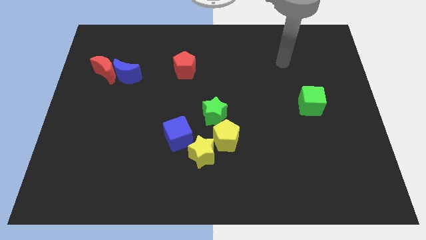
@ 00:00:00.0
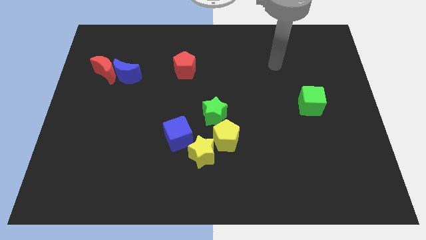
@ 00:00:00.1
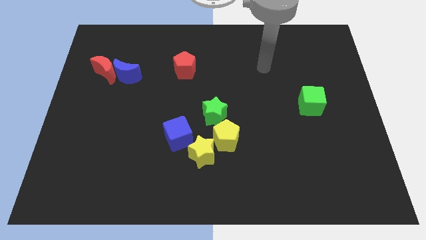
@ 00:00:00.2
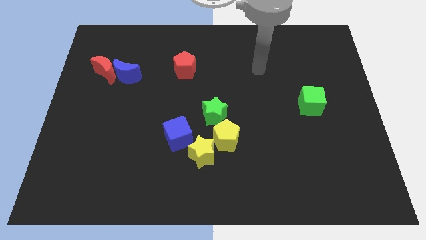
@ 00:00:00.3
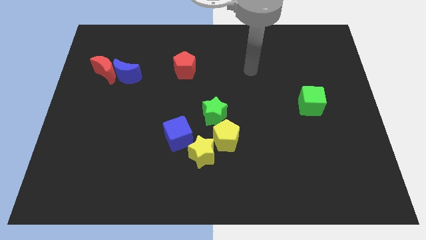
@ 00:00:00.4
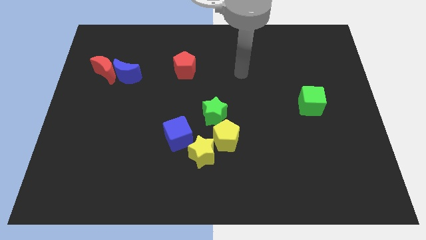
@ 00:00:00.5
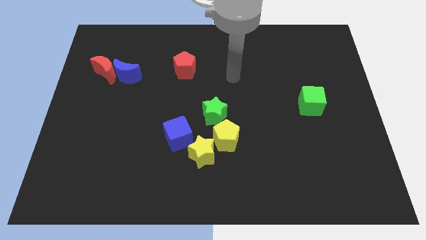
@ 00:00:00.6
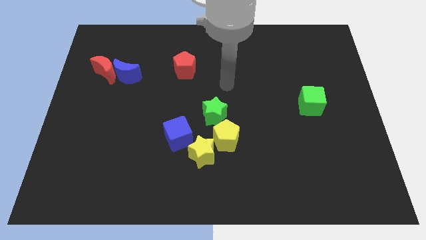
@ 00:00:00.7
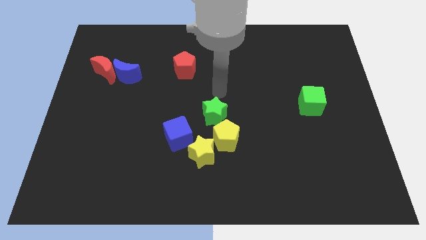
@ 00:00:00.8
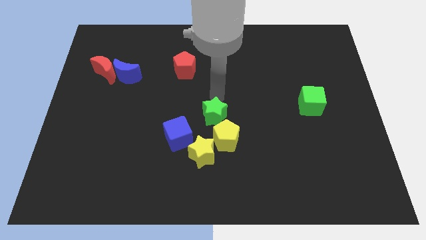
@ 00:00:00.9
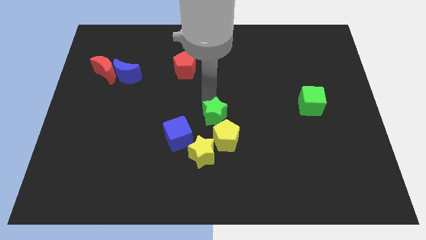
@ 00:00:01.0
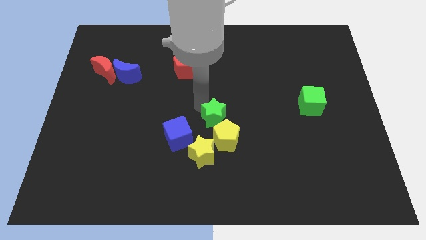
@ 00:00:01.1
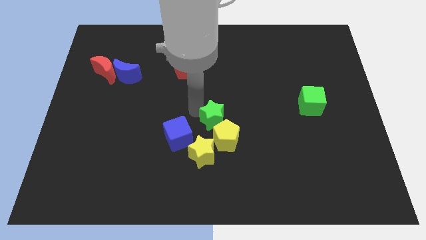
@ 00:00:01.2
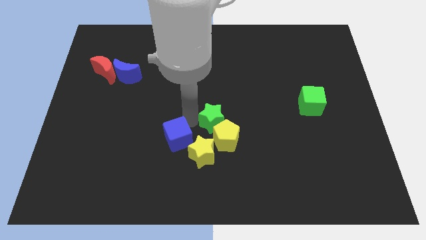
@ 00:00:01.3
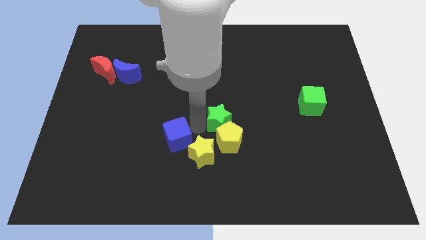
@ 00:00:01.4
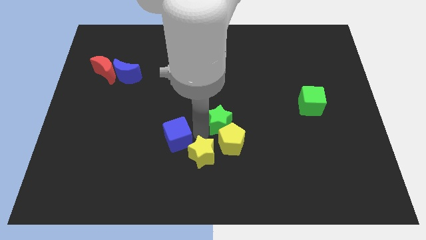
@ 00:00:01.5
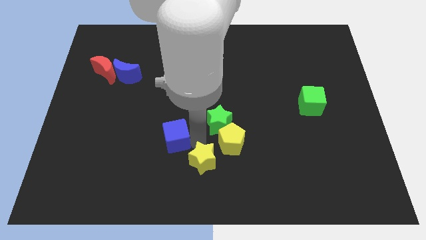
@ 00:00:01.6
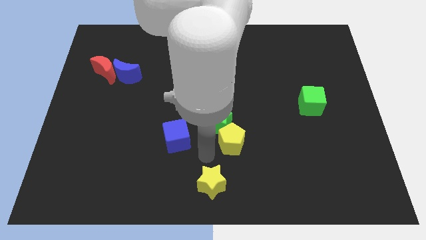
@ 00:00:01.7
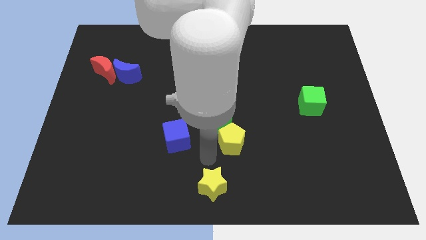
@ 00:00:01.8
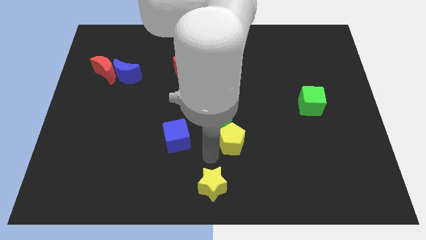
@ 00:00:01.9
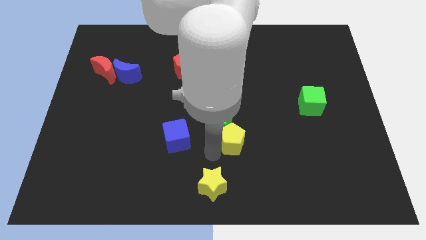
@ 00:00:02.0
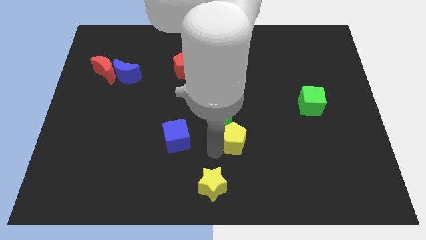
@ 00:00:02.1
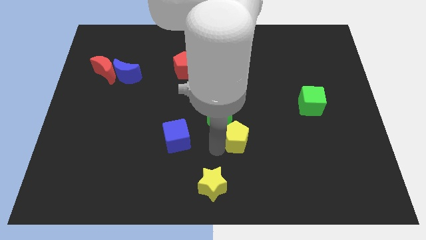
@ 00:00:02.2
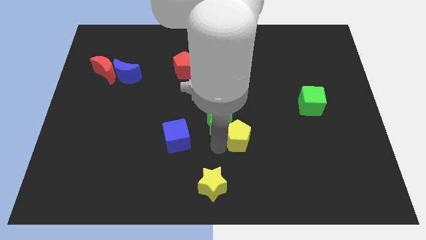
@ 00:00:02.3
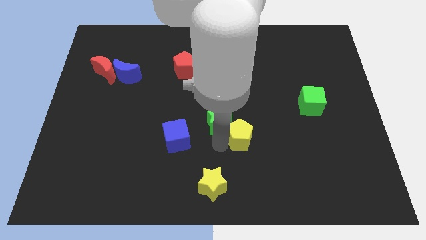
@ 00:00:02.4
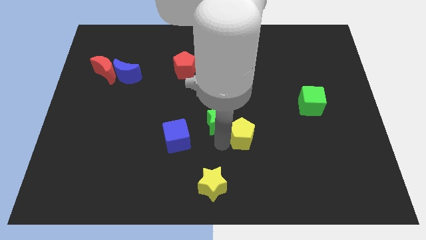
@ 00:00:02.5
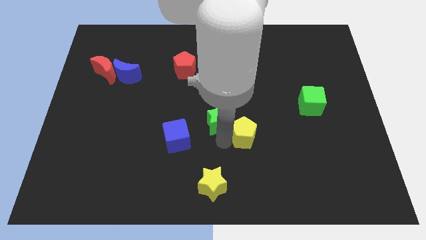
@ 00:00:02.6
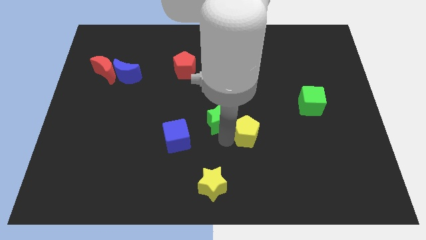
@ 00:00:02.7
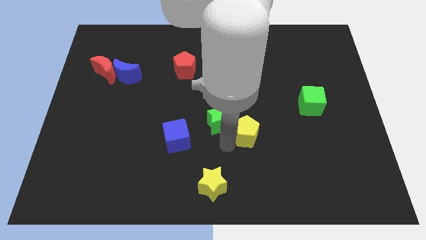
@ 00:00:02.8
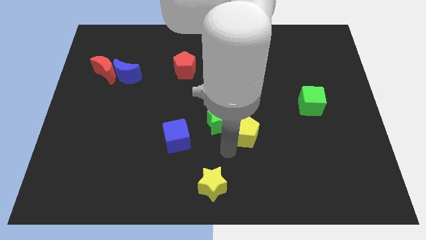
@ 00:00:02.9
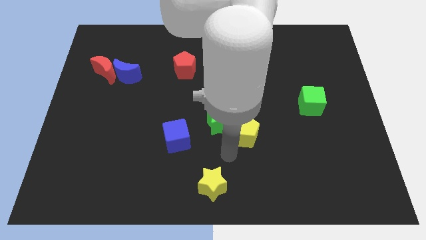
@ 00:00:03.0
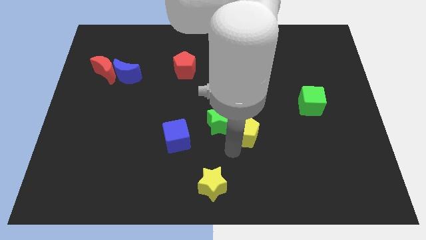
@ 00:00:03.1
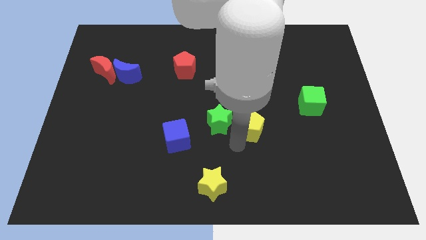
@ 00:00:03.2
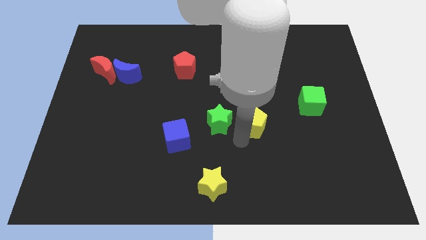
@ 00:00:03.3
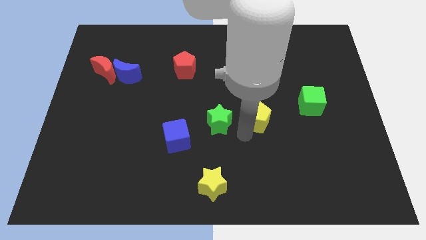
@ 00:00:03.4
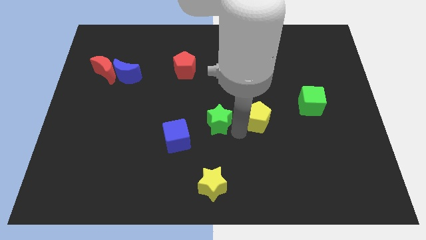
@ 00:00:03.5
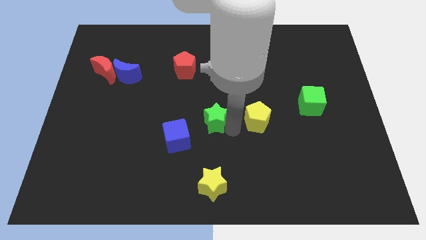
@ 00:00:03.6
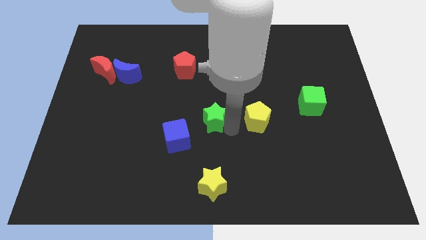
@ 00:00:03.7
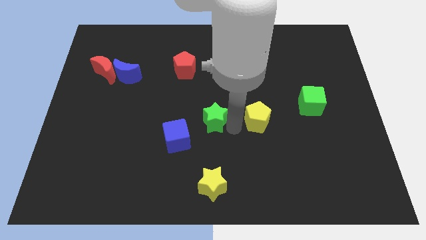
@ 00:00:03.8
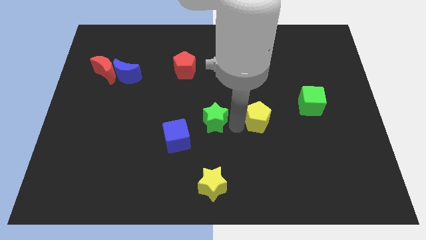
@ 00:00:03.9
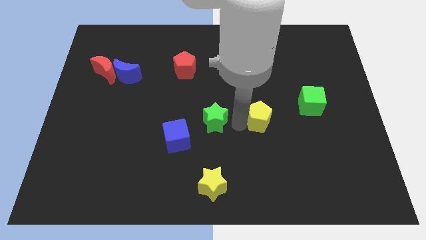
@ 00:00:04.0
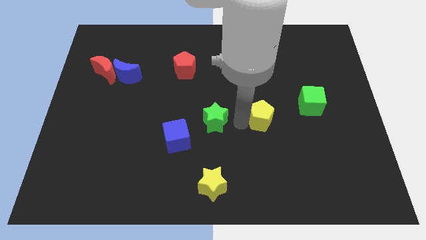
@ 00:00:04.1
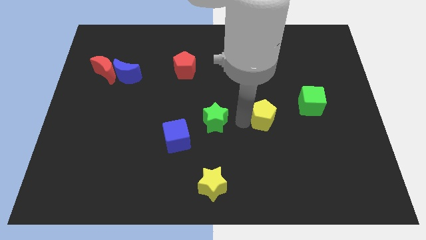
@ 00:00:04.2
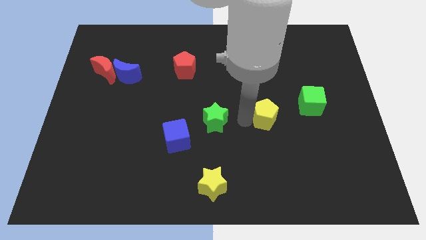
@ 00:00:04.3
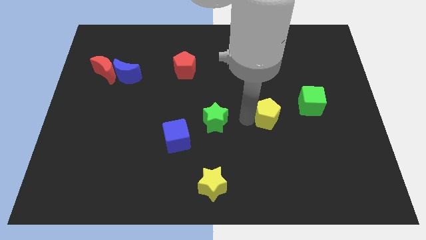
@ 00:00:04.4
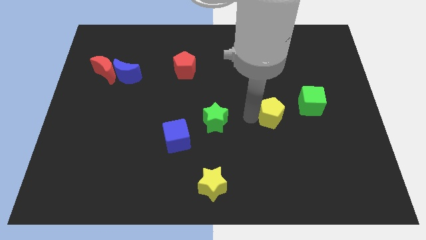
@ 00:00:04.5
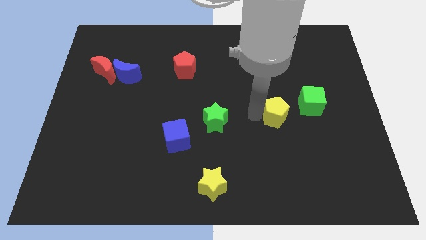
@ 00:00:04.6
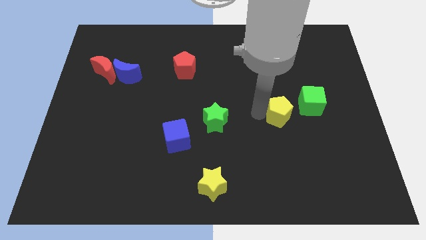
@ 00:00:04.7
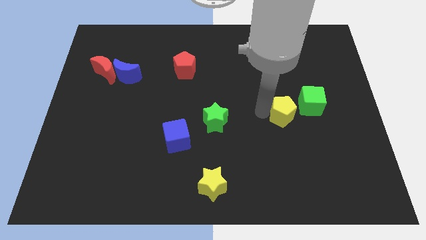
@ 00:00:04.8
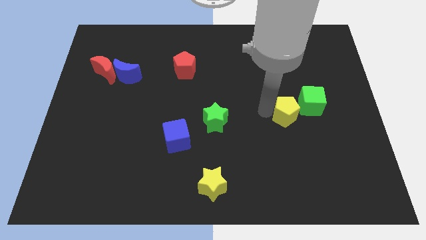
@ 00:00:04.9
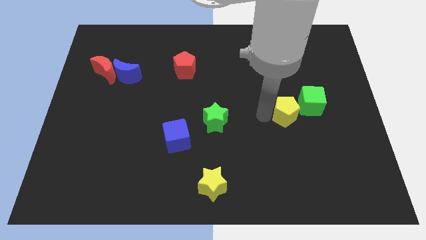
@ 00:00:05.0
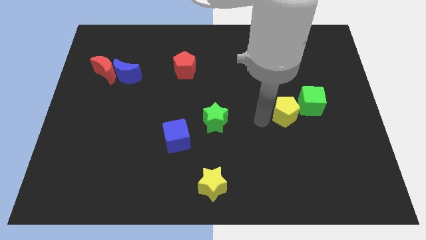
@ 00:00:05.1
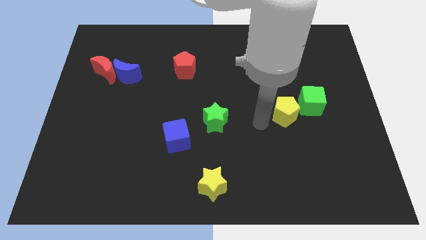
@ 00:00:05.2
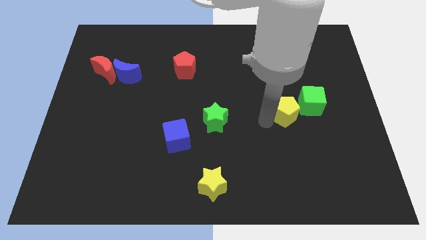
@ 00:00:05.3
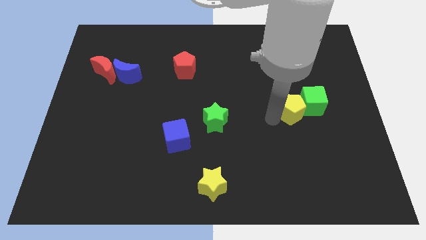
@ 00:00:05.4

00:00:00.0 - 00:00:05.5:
slide the yellow pentagon close to the green cube

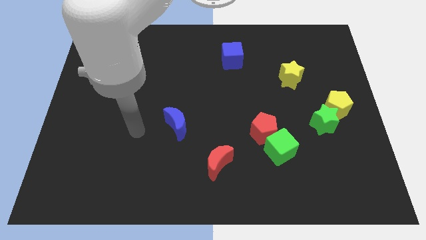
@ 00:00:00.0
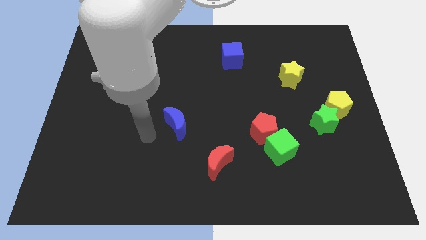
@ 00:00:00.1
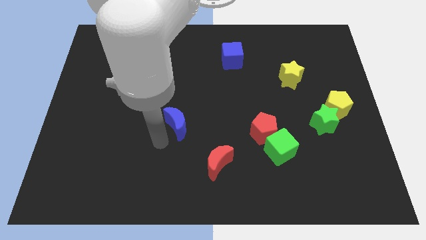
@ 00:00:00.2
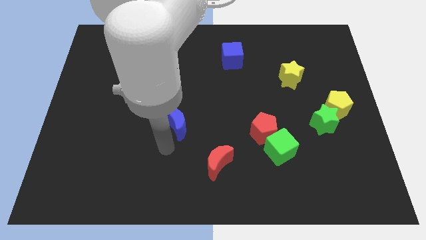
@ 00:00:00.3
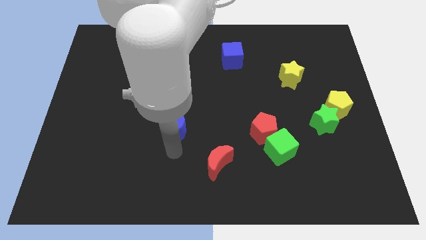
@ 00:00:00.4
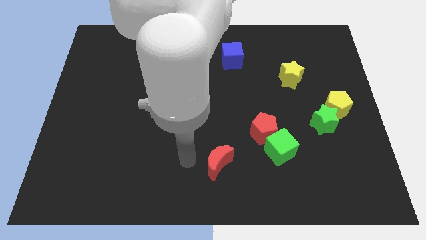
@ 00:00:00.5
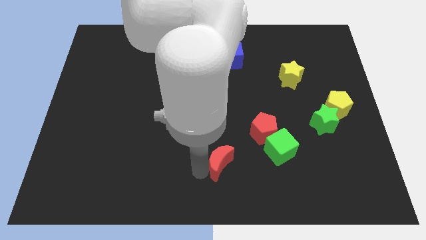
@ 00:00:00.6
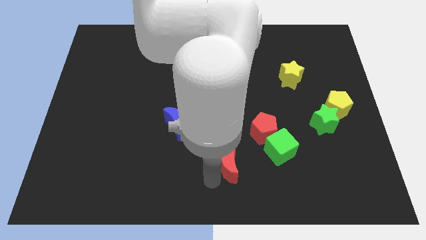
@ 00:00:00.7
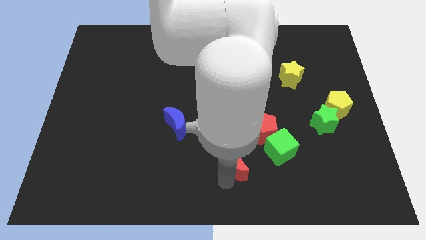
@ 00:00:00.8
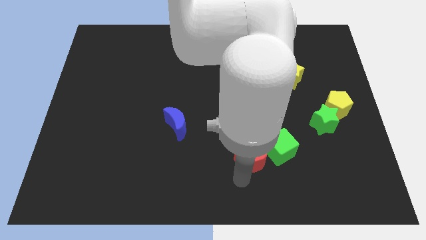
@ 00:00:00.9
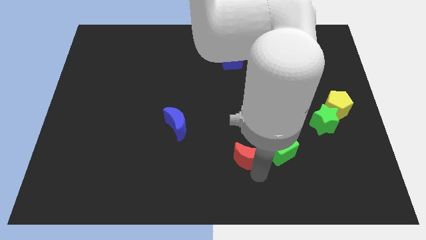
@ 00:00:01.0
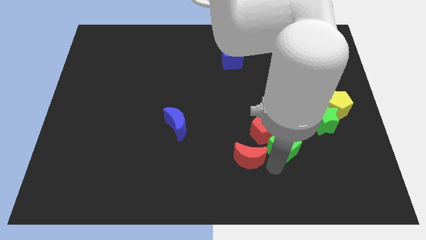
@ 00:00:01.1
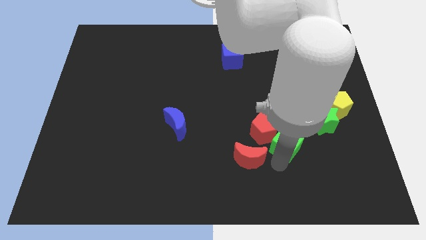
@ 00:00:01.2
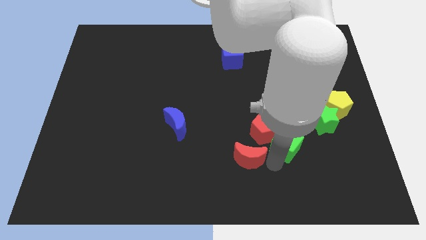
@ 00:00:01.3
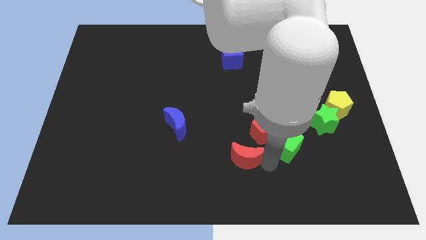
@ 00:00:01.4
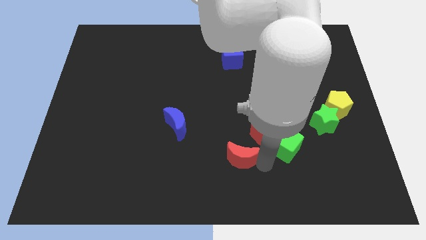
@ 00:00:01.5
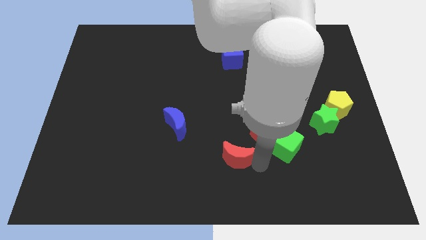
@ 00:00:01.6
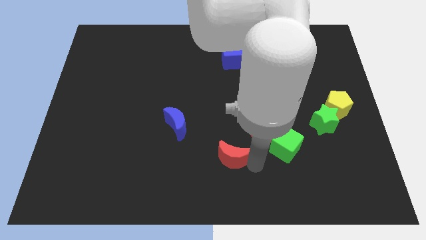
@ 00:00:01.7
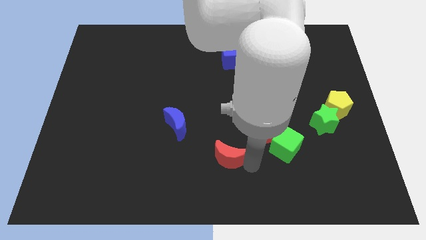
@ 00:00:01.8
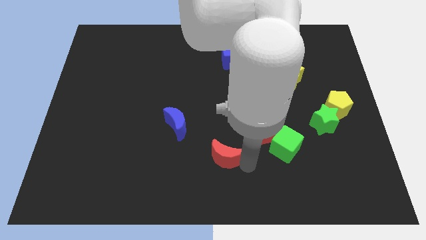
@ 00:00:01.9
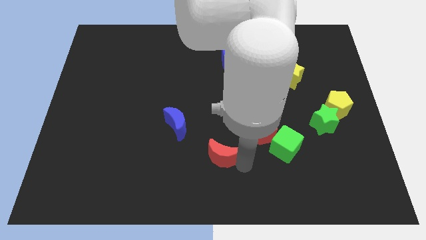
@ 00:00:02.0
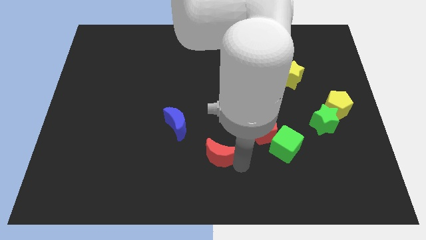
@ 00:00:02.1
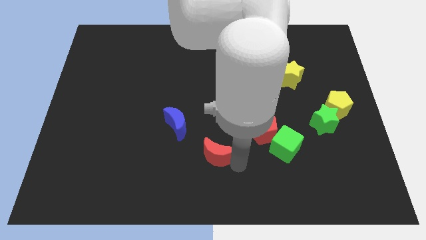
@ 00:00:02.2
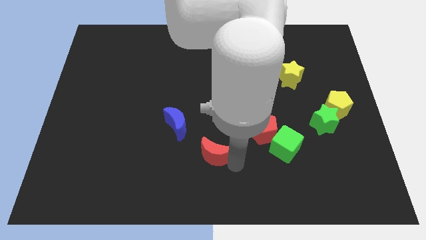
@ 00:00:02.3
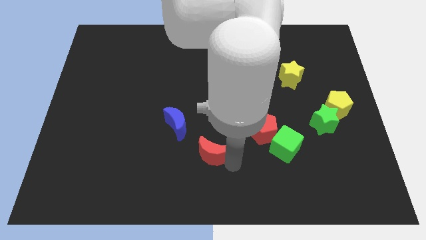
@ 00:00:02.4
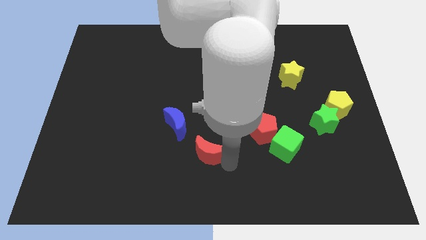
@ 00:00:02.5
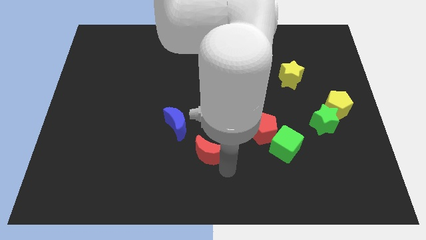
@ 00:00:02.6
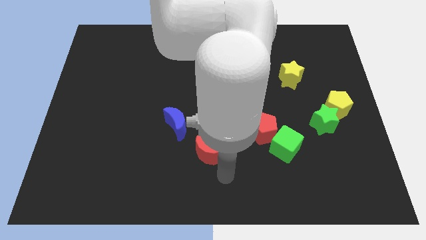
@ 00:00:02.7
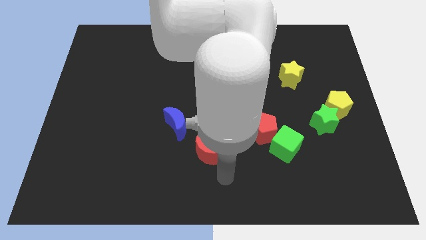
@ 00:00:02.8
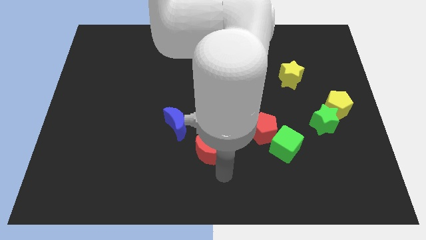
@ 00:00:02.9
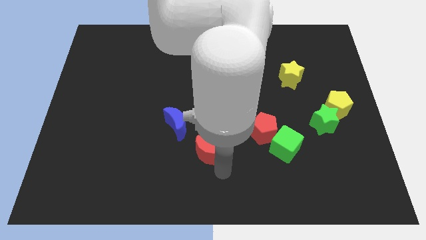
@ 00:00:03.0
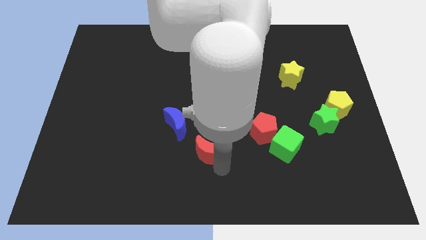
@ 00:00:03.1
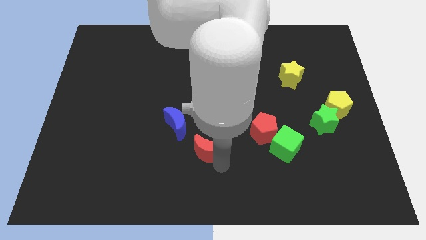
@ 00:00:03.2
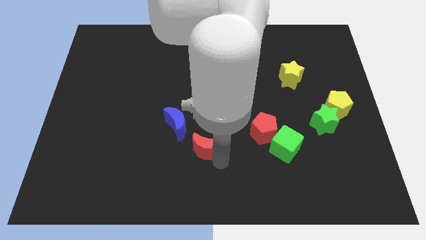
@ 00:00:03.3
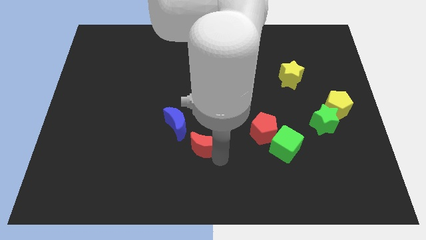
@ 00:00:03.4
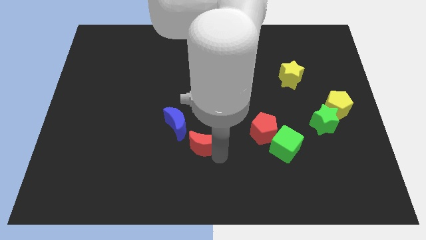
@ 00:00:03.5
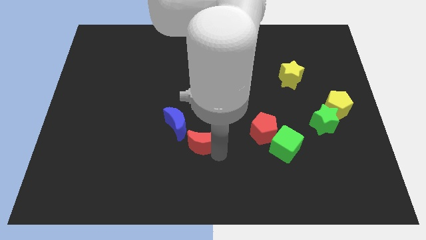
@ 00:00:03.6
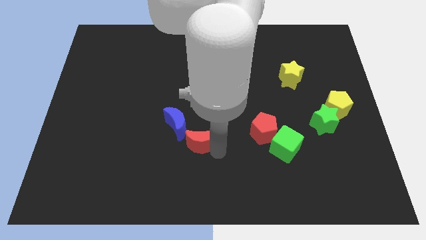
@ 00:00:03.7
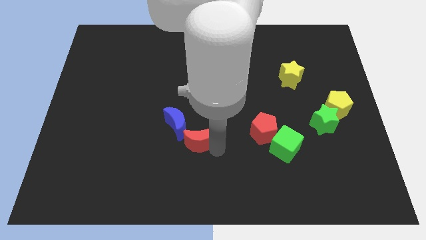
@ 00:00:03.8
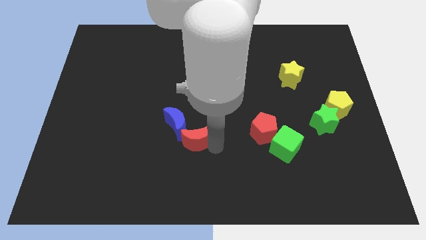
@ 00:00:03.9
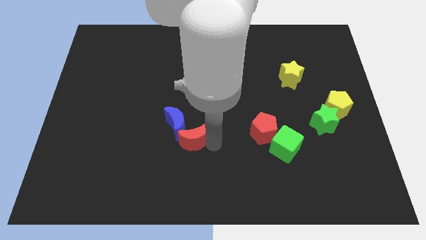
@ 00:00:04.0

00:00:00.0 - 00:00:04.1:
move the red moon towards the blue moon
